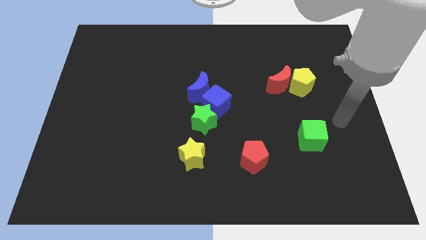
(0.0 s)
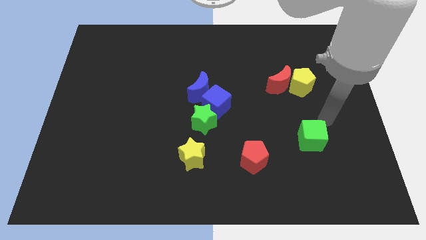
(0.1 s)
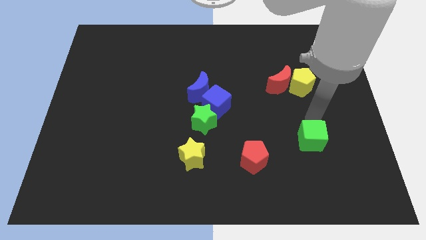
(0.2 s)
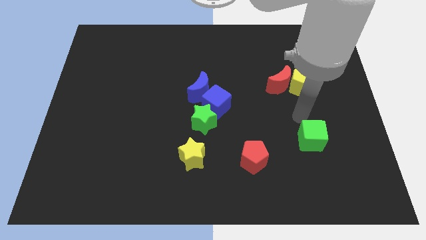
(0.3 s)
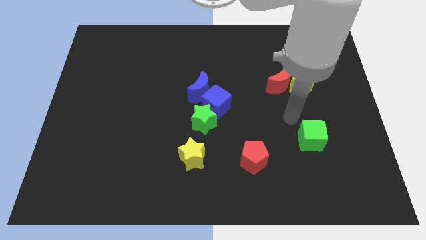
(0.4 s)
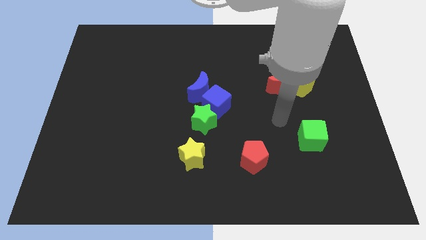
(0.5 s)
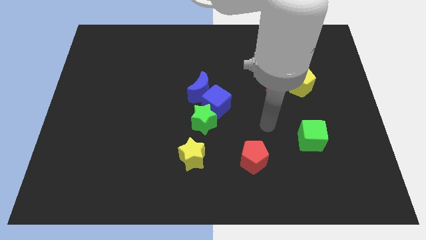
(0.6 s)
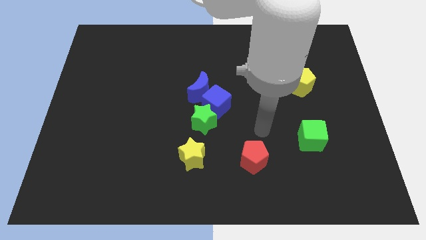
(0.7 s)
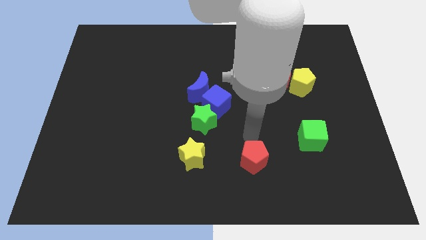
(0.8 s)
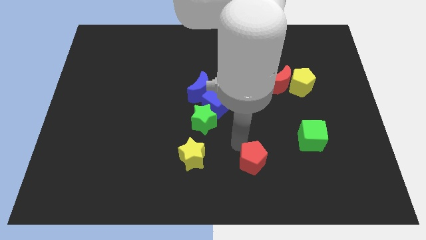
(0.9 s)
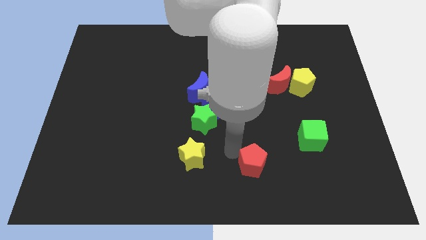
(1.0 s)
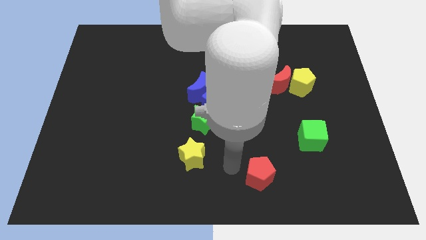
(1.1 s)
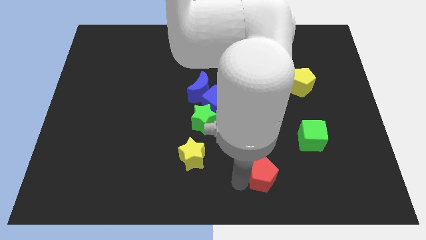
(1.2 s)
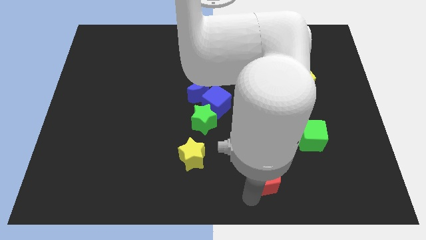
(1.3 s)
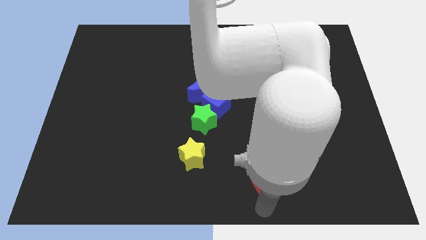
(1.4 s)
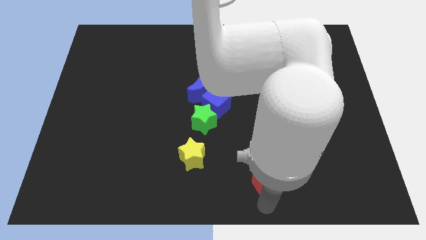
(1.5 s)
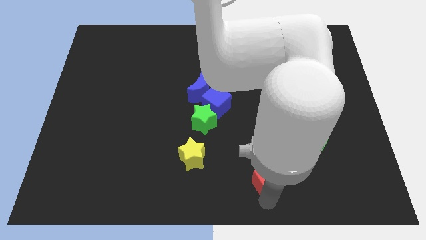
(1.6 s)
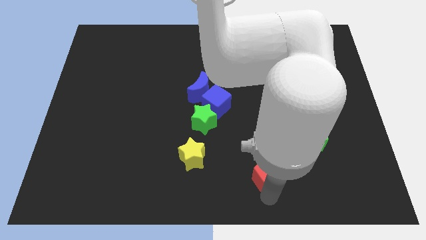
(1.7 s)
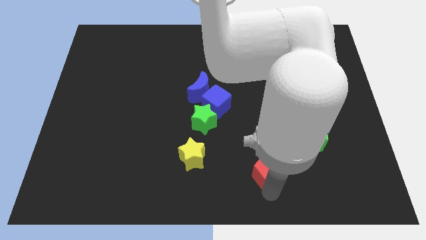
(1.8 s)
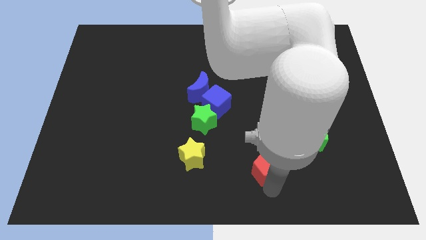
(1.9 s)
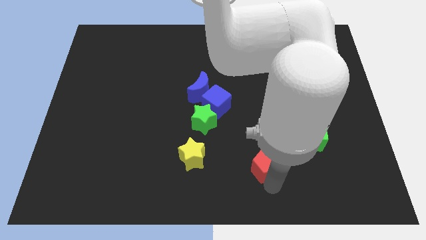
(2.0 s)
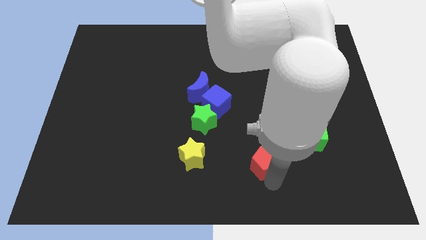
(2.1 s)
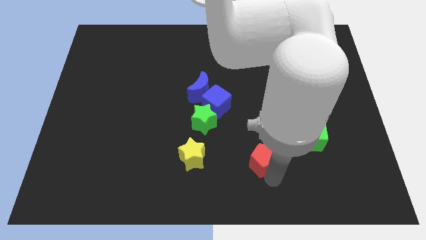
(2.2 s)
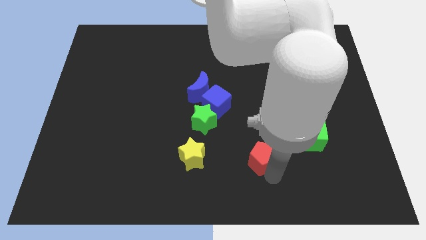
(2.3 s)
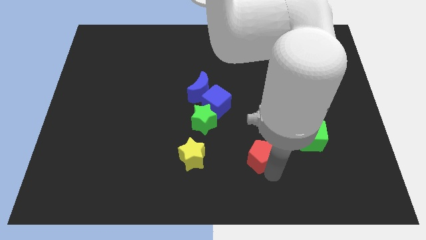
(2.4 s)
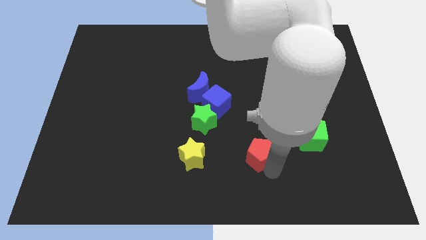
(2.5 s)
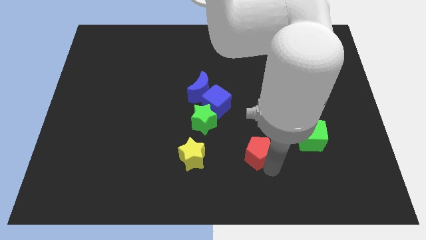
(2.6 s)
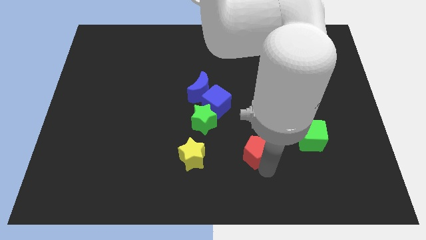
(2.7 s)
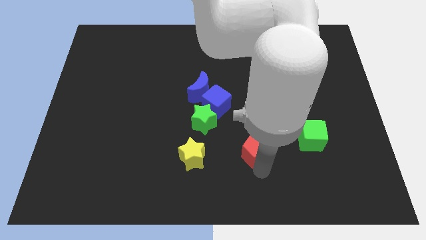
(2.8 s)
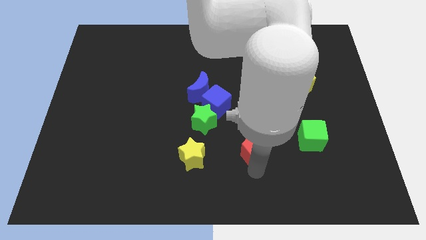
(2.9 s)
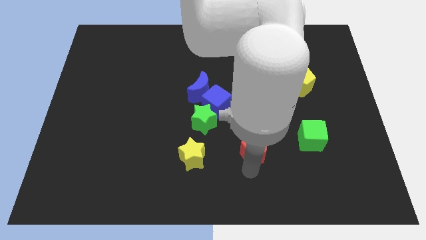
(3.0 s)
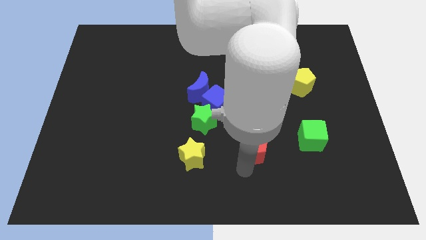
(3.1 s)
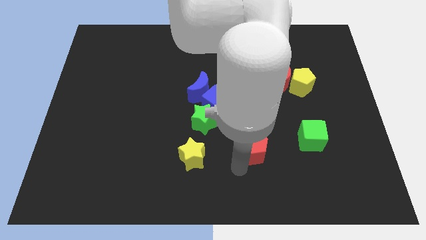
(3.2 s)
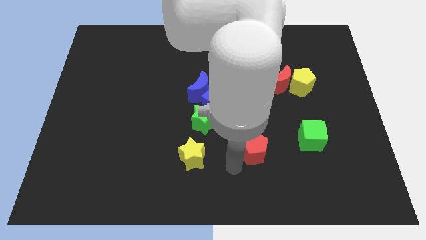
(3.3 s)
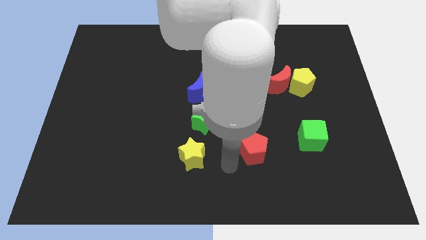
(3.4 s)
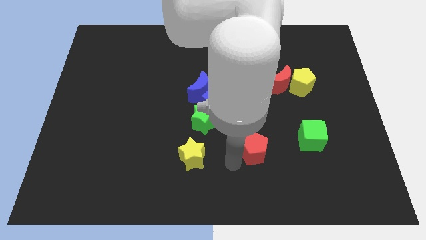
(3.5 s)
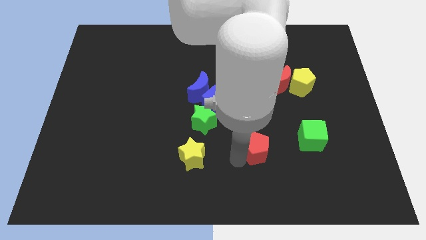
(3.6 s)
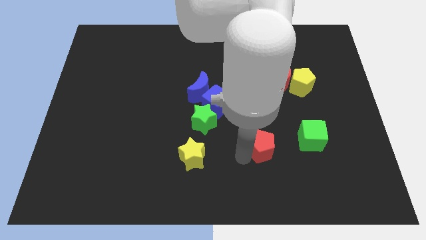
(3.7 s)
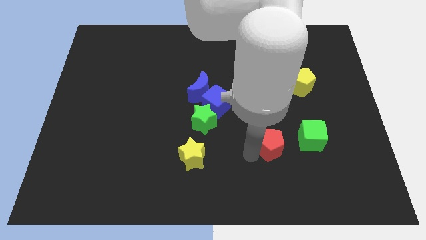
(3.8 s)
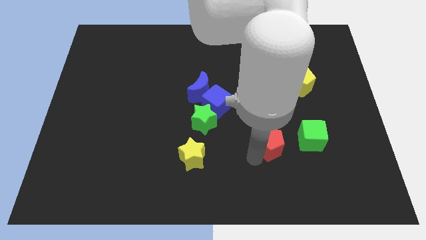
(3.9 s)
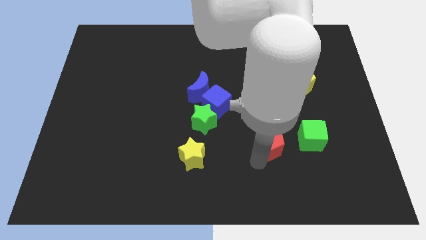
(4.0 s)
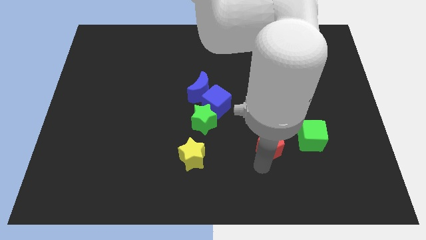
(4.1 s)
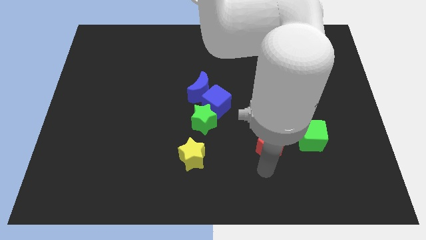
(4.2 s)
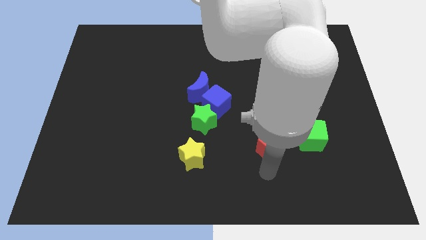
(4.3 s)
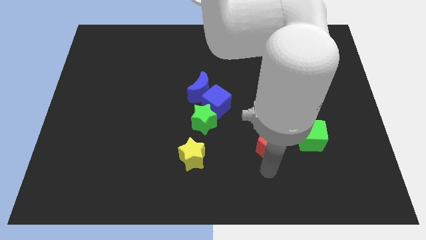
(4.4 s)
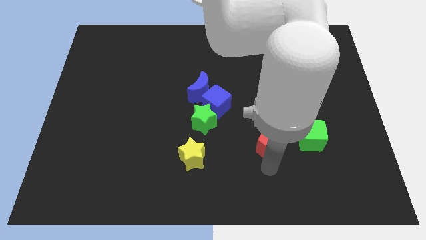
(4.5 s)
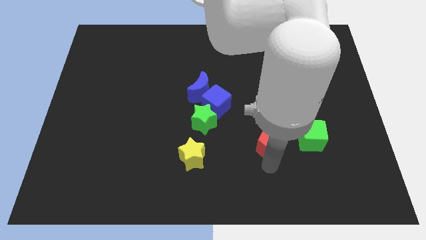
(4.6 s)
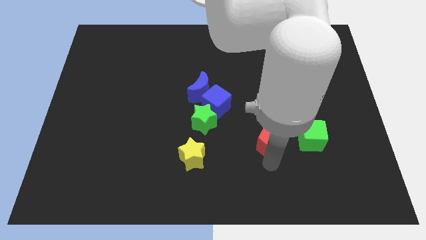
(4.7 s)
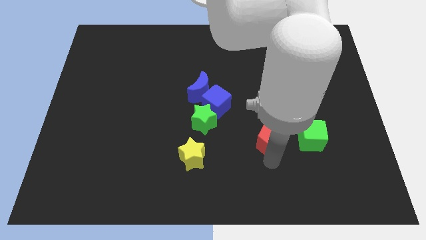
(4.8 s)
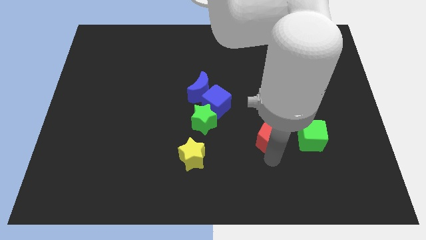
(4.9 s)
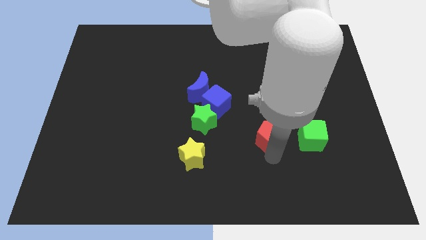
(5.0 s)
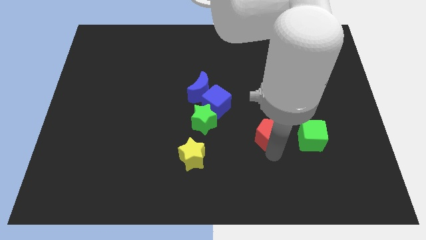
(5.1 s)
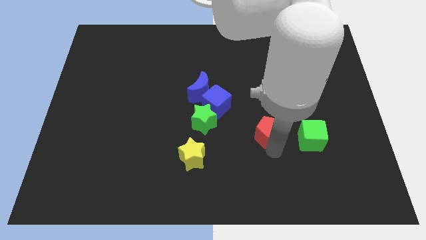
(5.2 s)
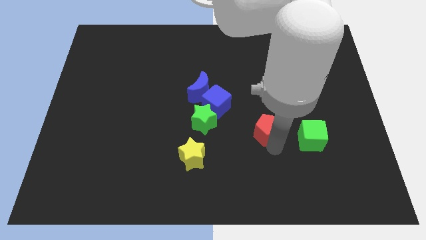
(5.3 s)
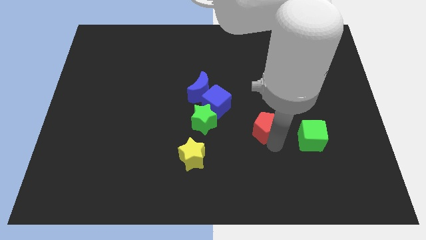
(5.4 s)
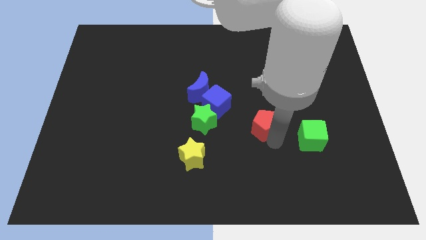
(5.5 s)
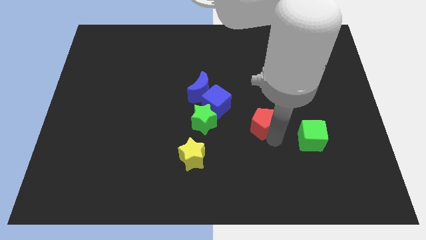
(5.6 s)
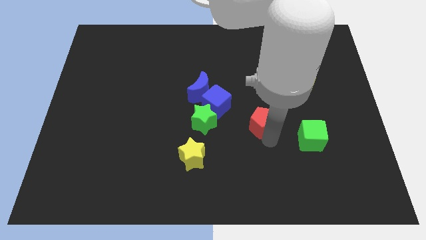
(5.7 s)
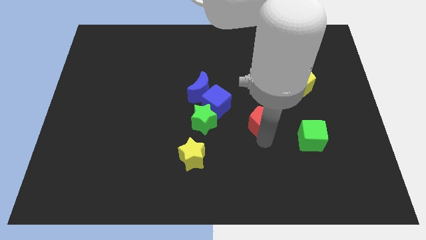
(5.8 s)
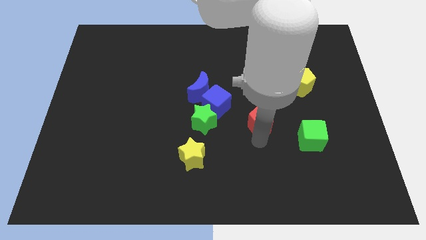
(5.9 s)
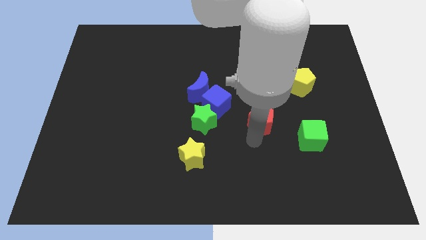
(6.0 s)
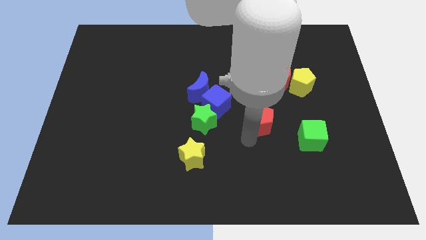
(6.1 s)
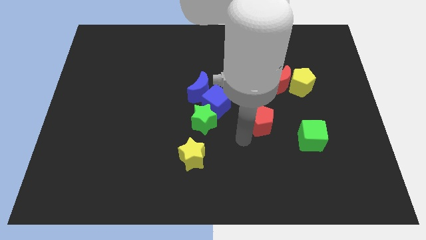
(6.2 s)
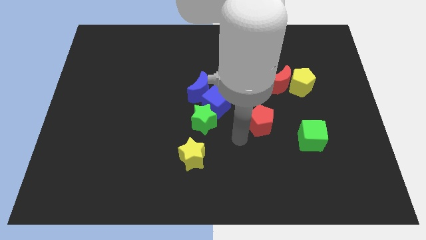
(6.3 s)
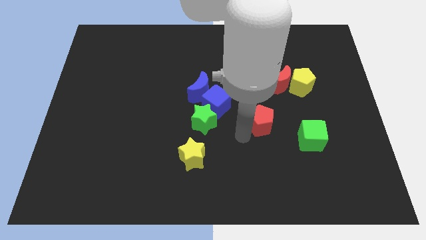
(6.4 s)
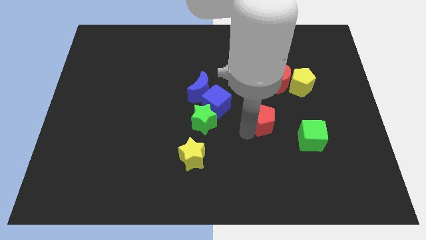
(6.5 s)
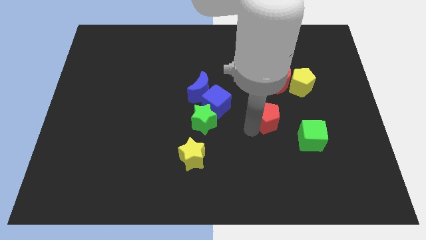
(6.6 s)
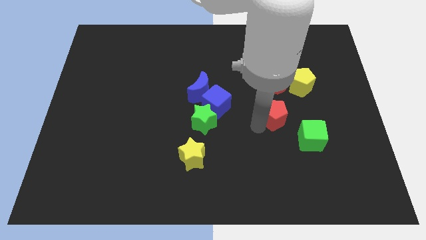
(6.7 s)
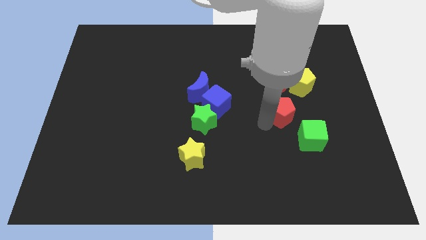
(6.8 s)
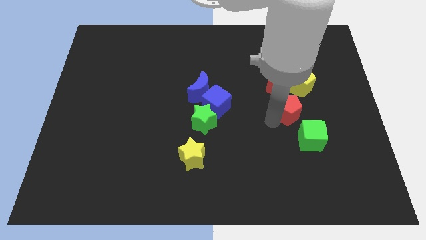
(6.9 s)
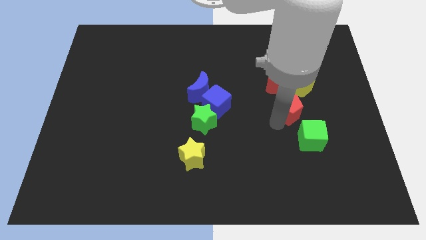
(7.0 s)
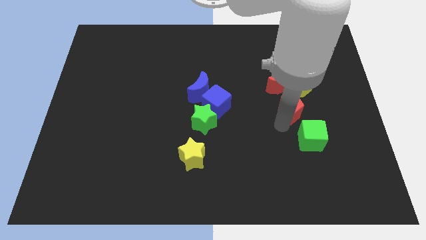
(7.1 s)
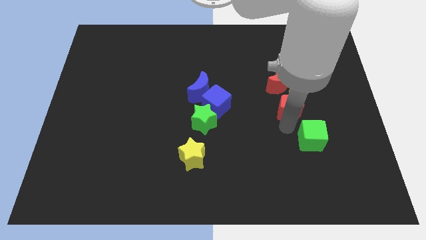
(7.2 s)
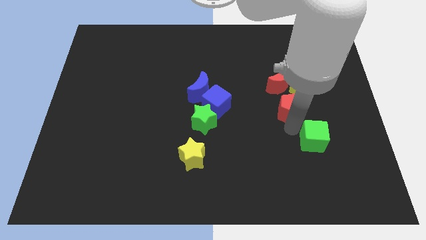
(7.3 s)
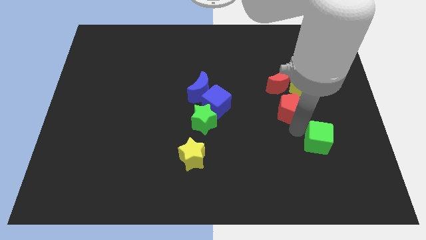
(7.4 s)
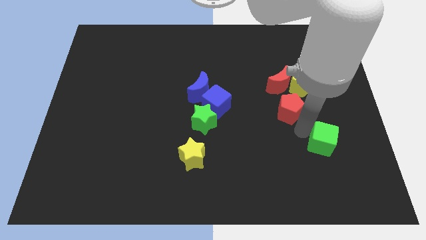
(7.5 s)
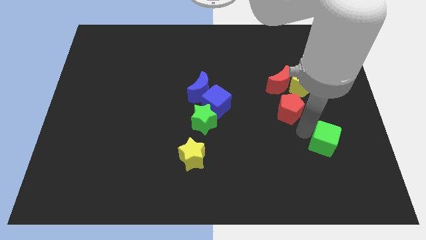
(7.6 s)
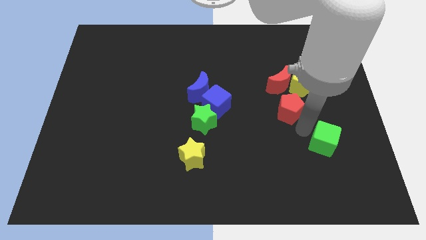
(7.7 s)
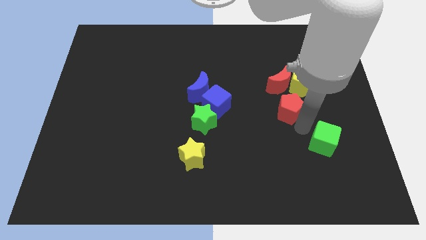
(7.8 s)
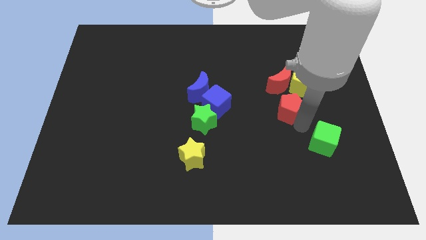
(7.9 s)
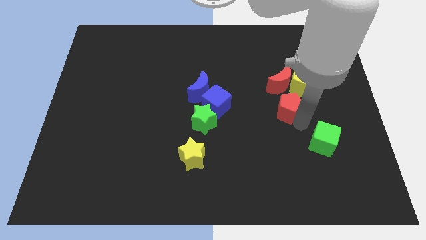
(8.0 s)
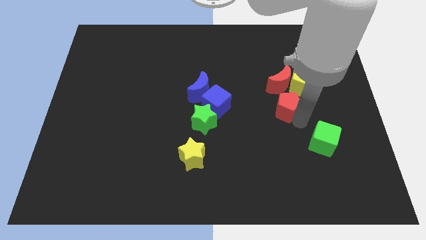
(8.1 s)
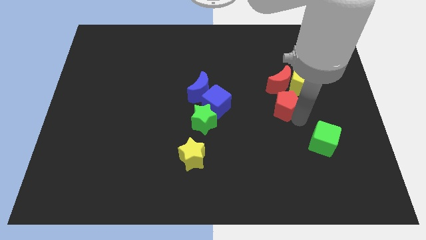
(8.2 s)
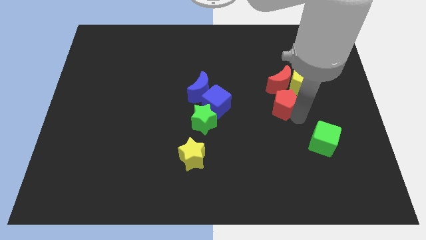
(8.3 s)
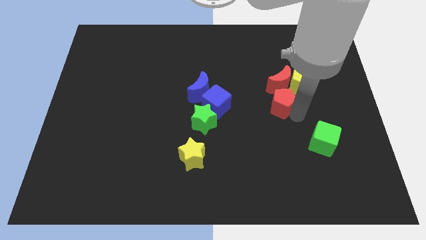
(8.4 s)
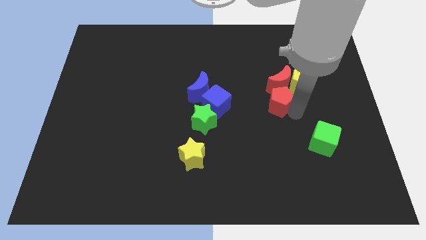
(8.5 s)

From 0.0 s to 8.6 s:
push the red pentagon to the red moon

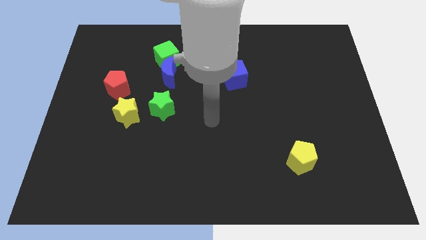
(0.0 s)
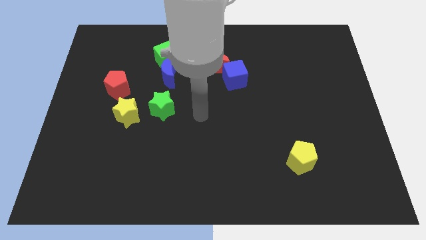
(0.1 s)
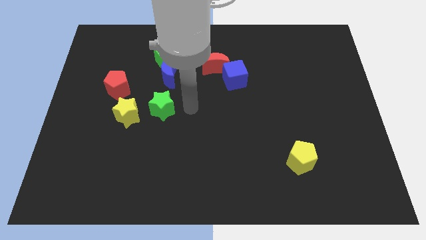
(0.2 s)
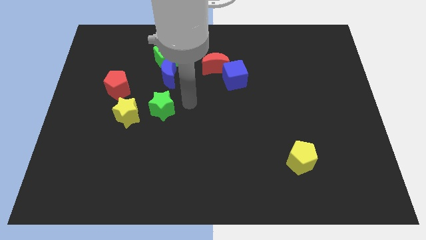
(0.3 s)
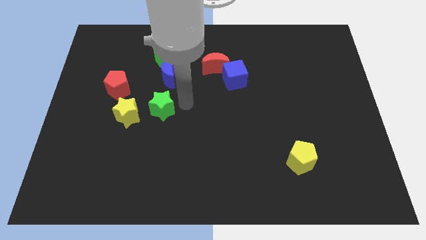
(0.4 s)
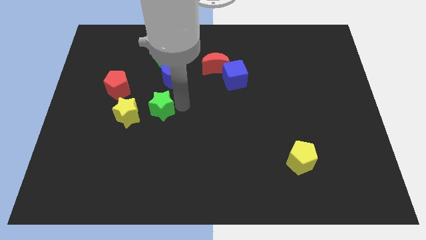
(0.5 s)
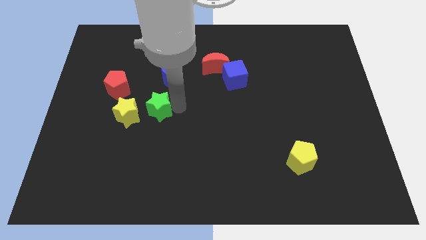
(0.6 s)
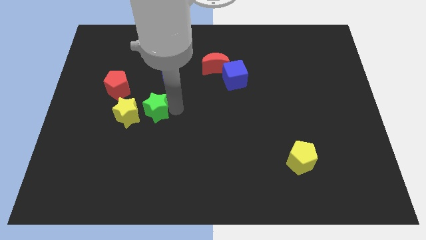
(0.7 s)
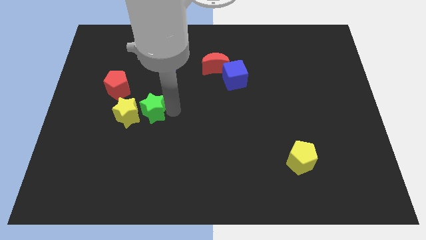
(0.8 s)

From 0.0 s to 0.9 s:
put the green star to the yellow star
